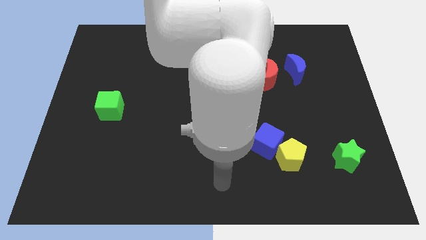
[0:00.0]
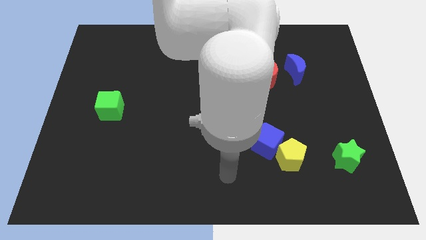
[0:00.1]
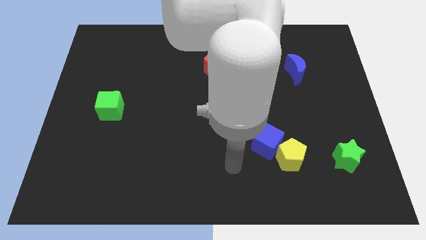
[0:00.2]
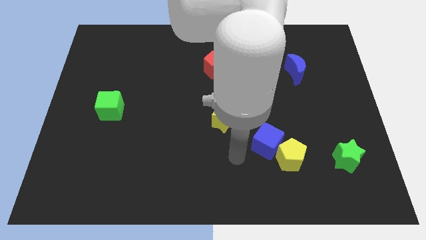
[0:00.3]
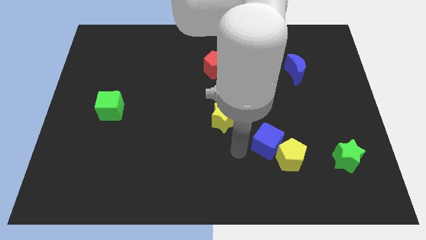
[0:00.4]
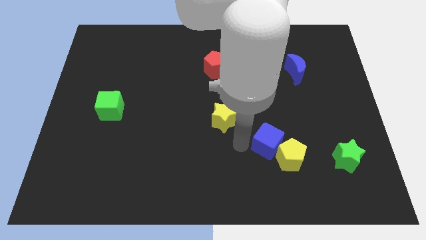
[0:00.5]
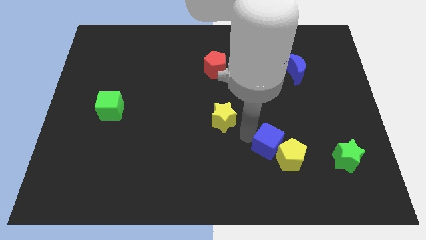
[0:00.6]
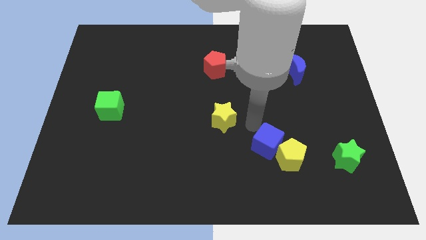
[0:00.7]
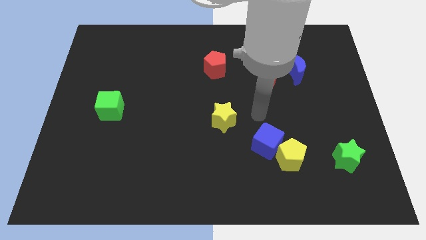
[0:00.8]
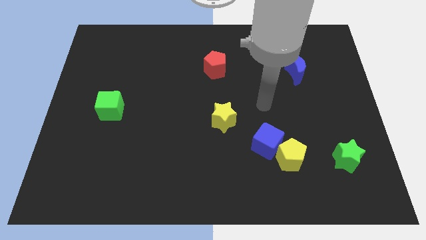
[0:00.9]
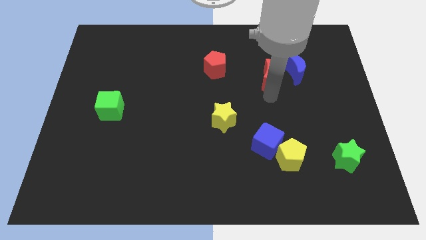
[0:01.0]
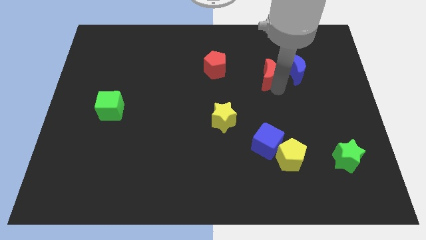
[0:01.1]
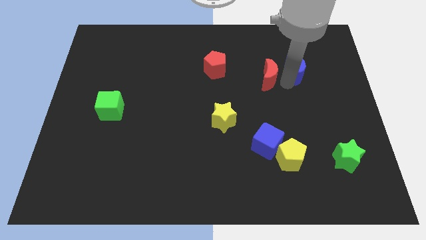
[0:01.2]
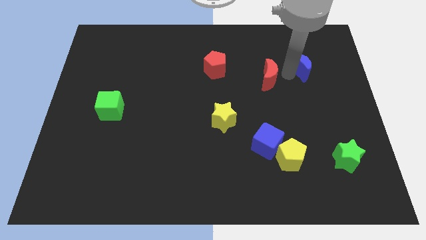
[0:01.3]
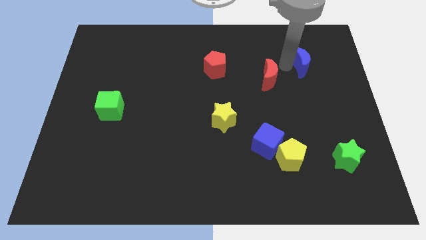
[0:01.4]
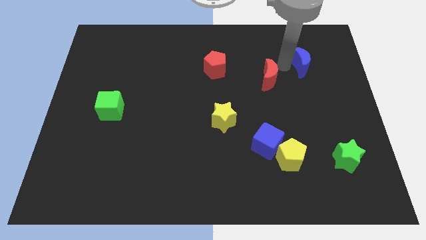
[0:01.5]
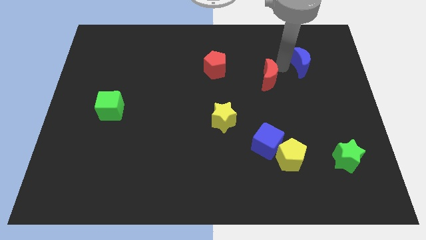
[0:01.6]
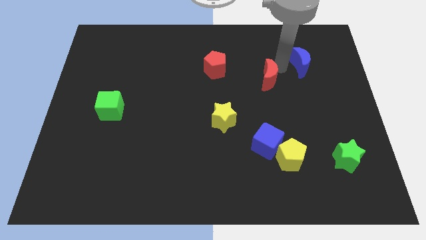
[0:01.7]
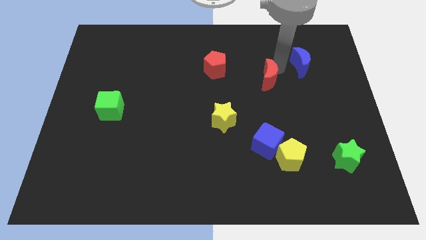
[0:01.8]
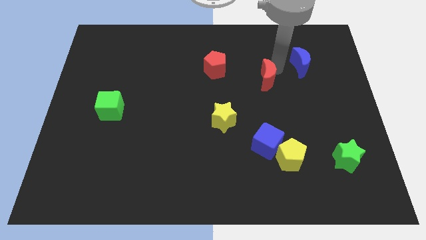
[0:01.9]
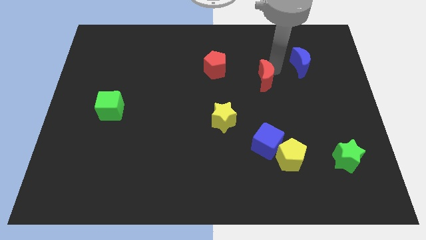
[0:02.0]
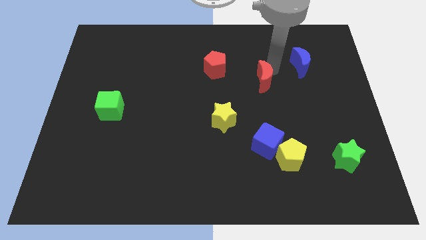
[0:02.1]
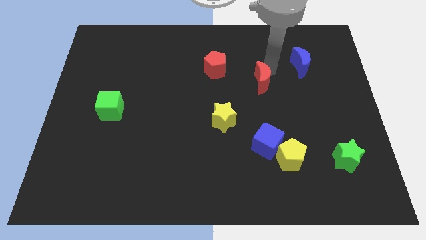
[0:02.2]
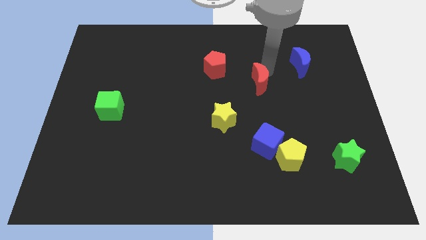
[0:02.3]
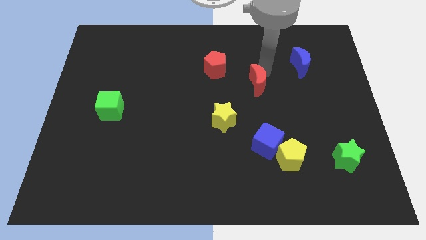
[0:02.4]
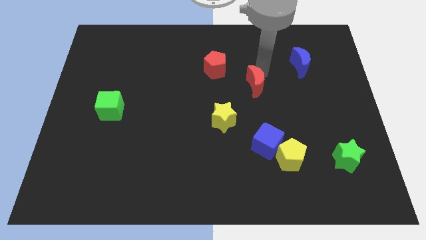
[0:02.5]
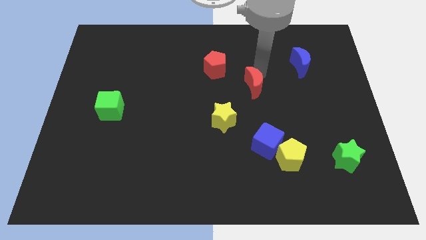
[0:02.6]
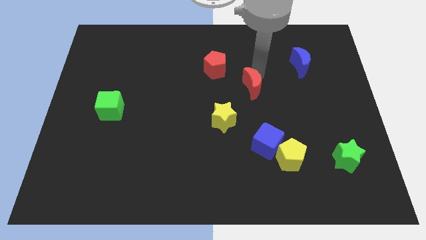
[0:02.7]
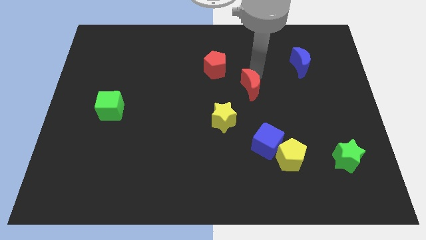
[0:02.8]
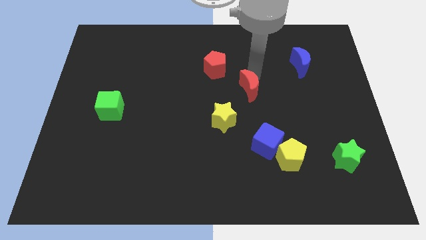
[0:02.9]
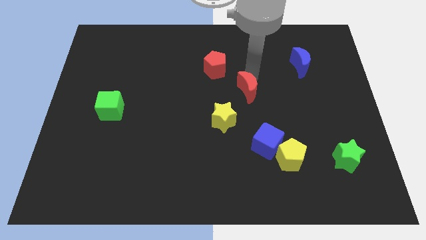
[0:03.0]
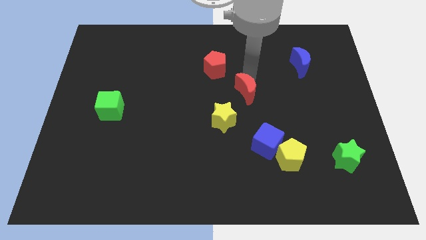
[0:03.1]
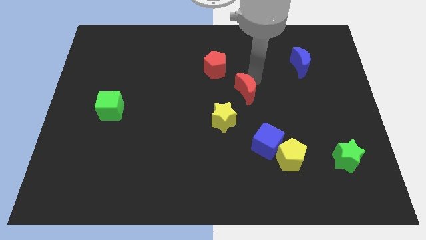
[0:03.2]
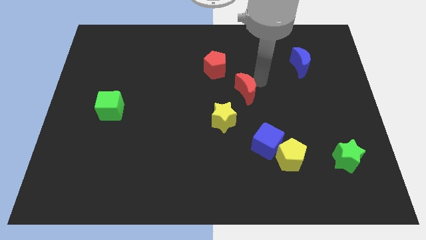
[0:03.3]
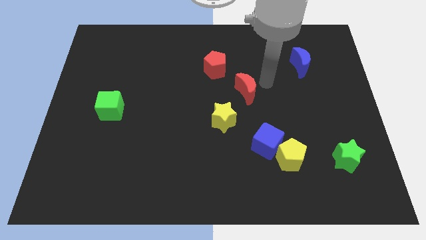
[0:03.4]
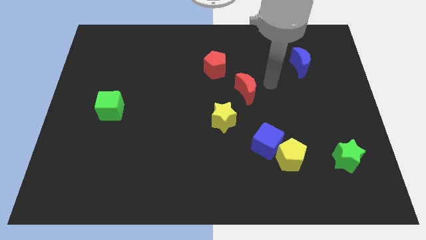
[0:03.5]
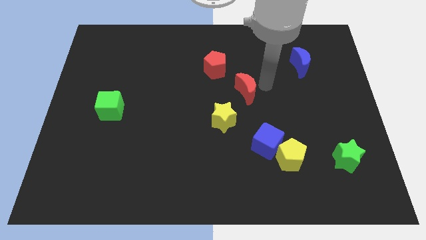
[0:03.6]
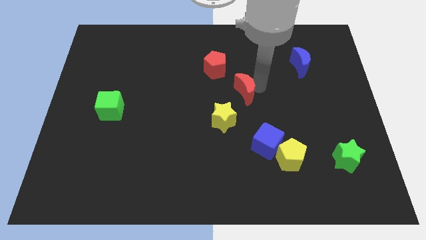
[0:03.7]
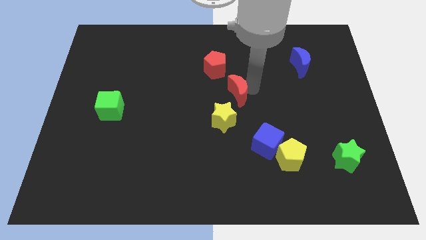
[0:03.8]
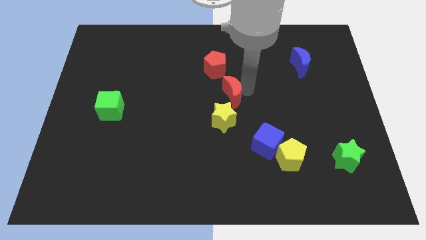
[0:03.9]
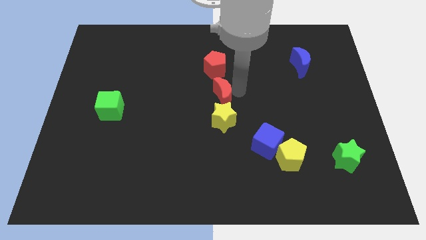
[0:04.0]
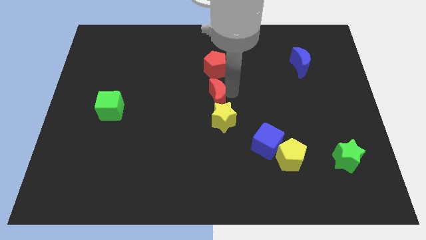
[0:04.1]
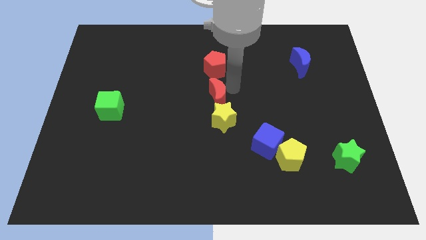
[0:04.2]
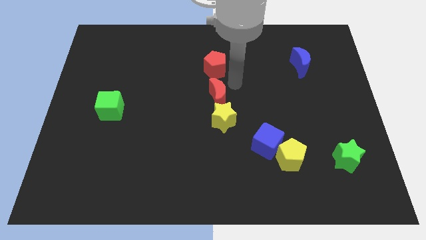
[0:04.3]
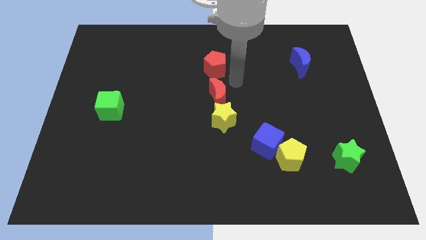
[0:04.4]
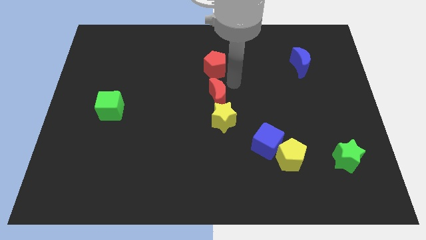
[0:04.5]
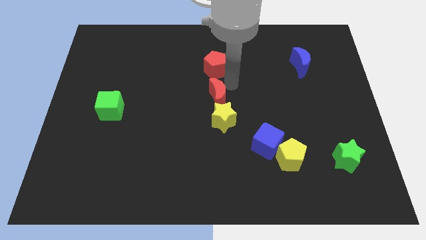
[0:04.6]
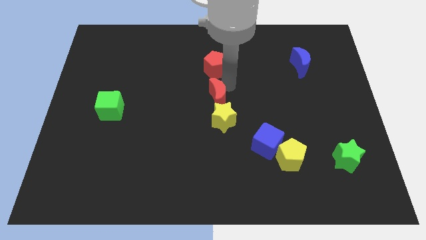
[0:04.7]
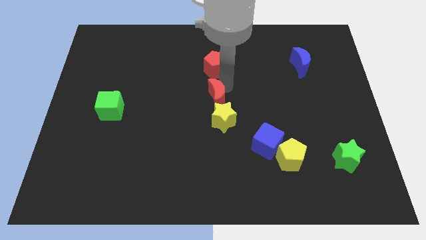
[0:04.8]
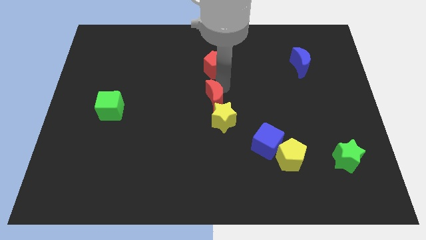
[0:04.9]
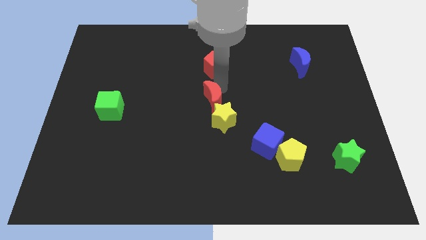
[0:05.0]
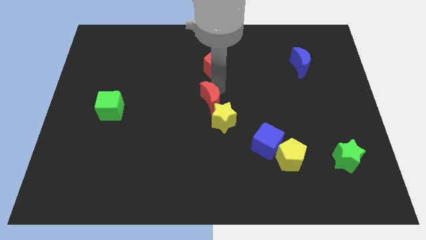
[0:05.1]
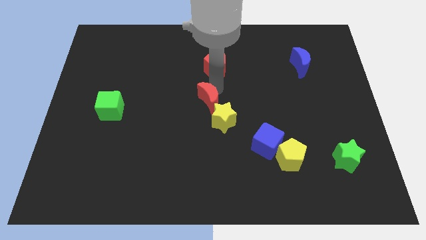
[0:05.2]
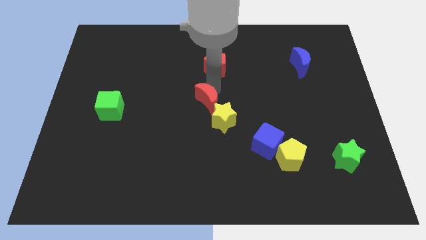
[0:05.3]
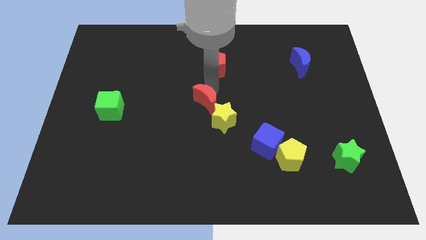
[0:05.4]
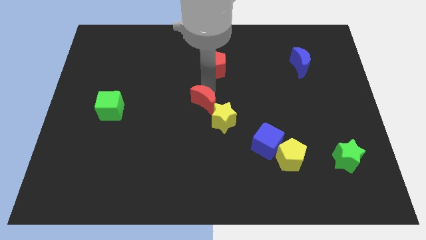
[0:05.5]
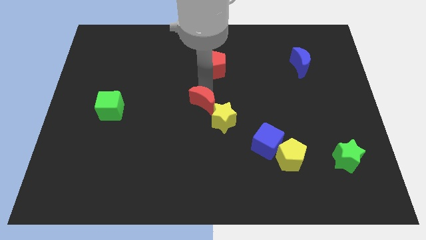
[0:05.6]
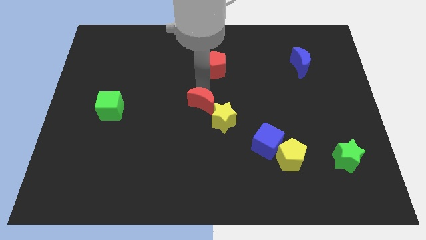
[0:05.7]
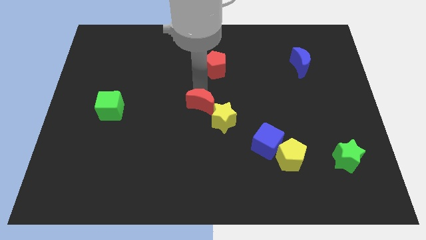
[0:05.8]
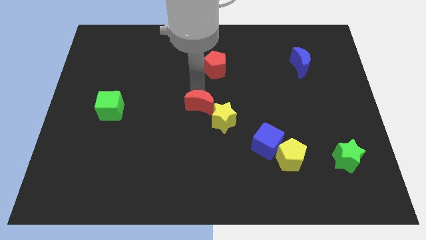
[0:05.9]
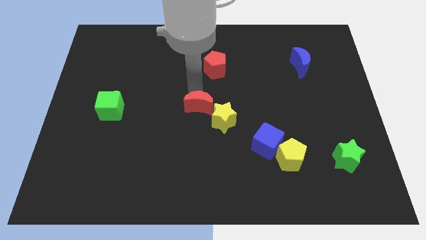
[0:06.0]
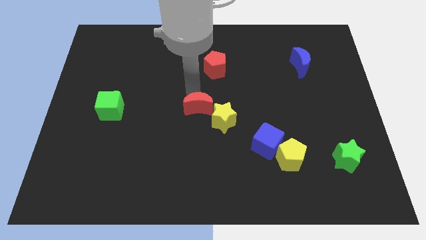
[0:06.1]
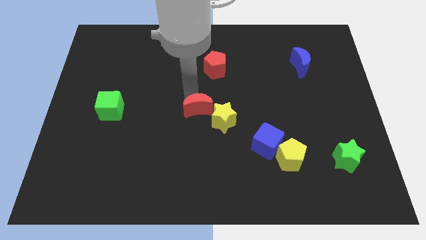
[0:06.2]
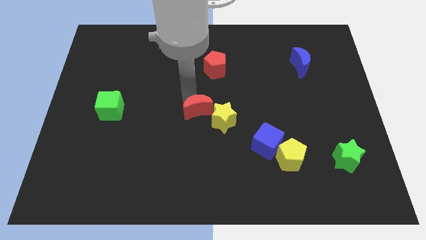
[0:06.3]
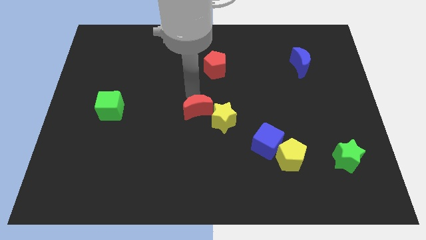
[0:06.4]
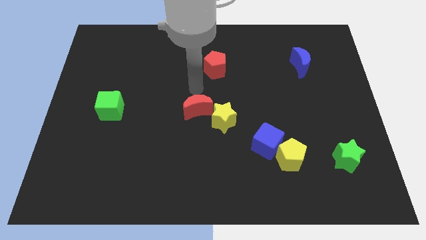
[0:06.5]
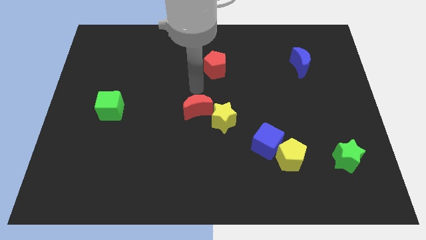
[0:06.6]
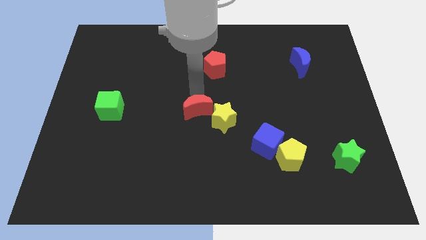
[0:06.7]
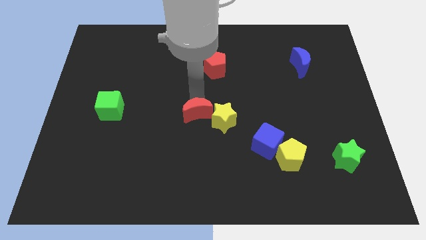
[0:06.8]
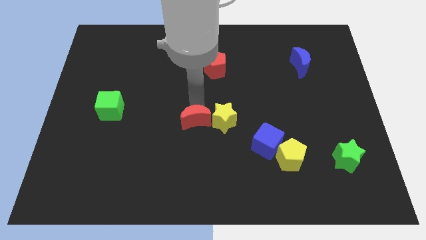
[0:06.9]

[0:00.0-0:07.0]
put the red moon to the bottom left of the yellow star

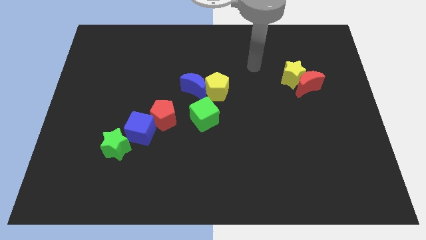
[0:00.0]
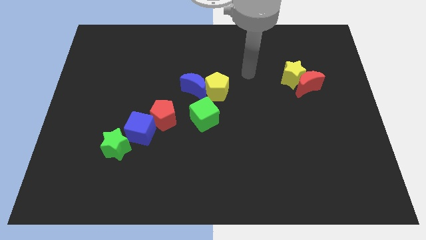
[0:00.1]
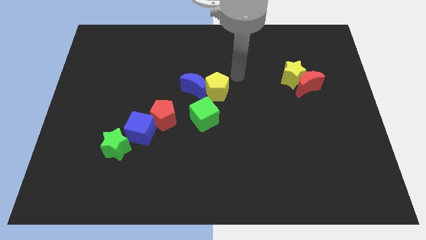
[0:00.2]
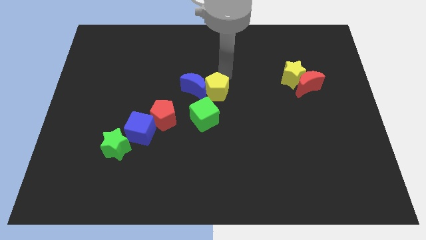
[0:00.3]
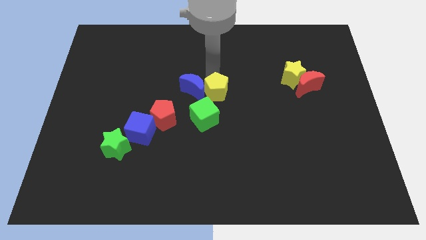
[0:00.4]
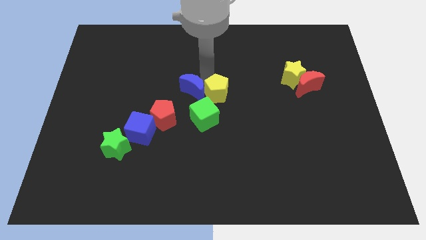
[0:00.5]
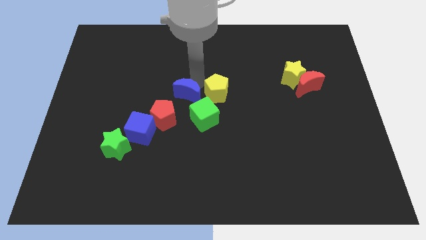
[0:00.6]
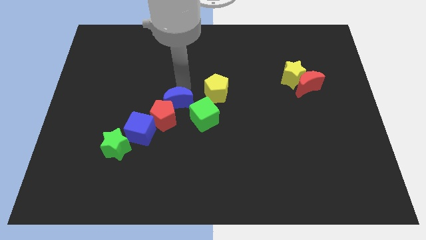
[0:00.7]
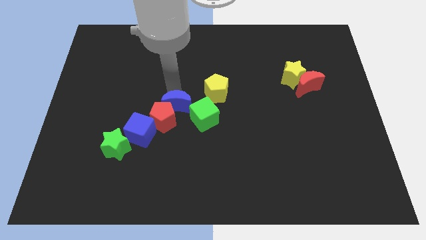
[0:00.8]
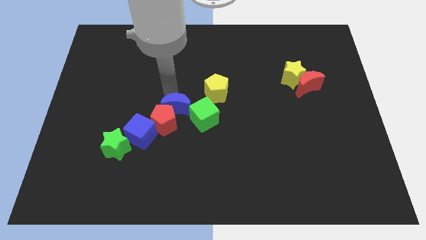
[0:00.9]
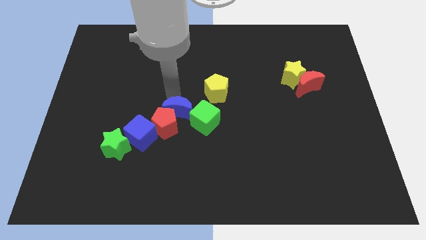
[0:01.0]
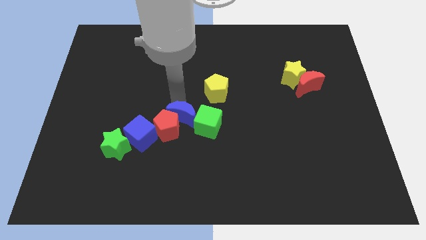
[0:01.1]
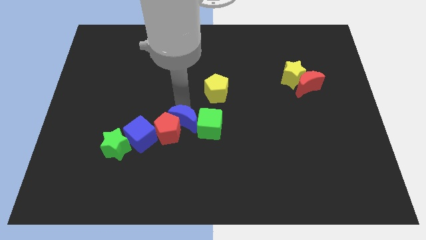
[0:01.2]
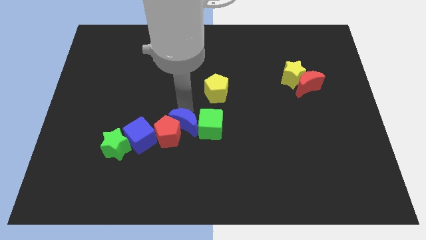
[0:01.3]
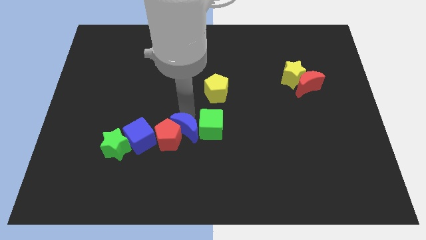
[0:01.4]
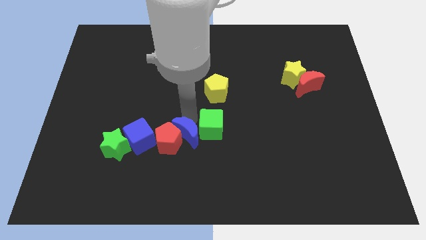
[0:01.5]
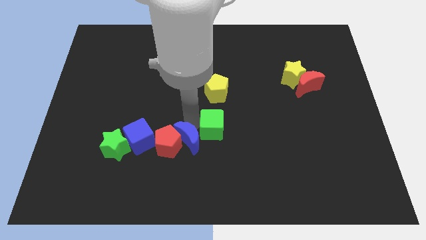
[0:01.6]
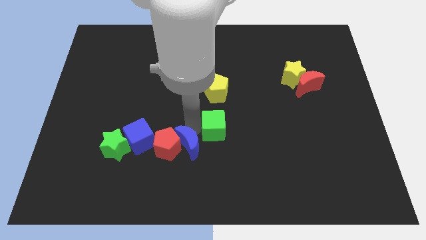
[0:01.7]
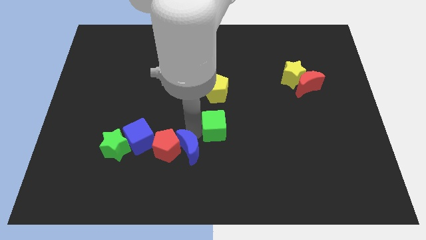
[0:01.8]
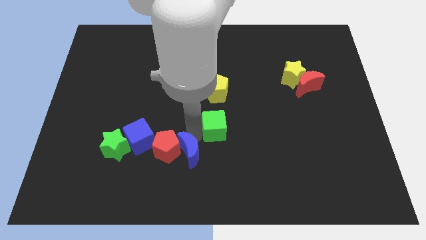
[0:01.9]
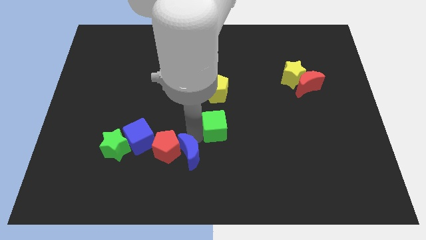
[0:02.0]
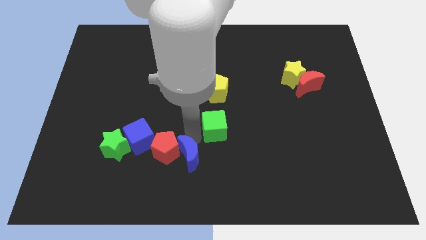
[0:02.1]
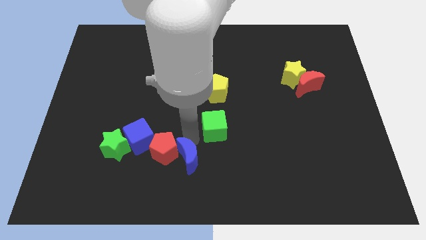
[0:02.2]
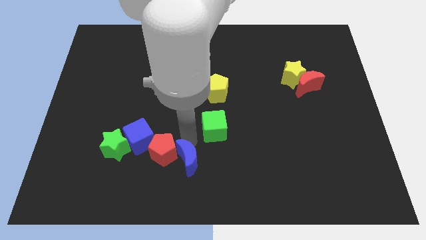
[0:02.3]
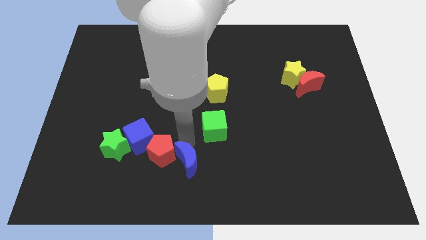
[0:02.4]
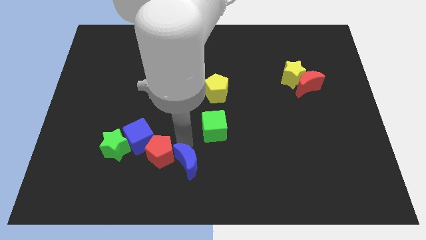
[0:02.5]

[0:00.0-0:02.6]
slide the red pentagon below the blue cube
